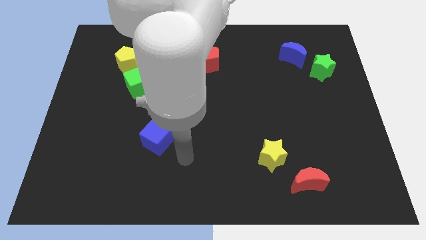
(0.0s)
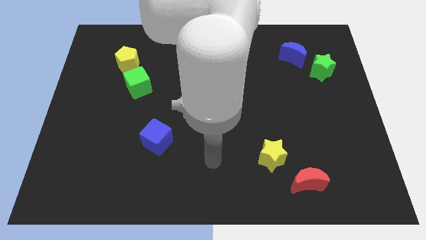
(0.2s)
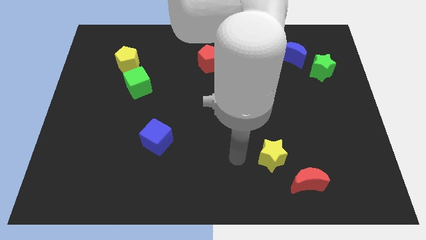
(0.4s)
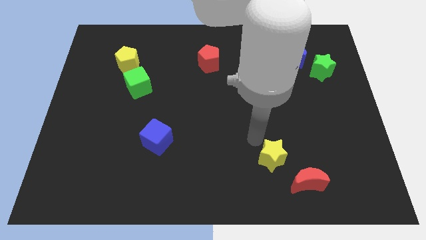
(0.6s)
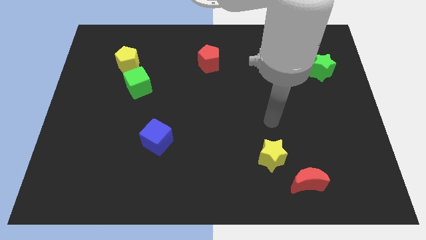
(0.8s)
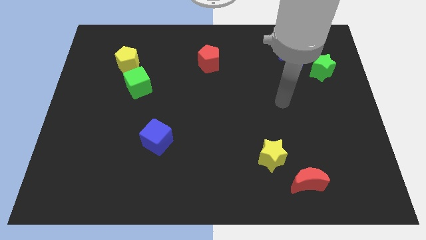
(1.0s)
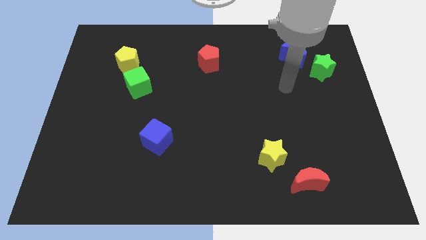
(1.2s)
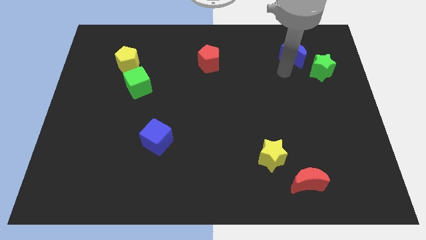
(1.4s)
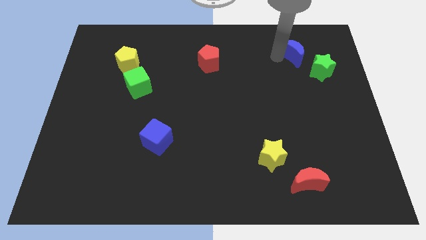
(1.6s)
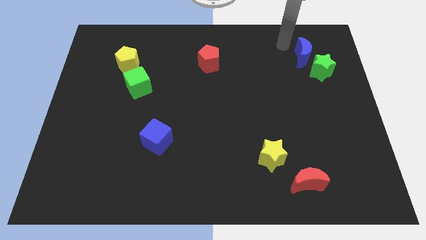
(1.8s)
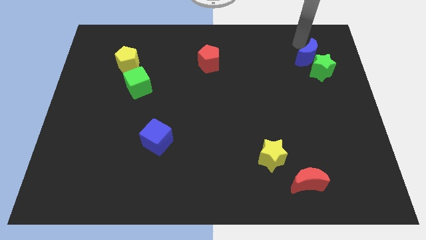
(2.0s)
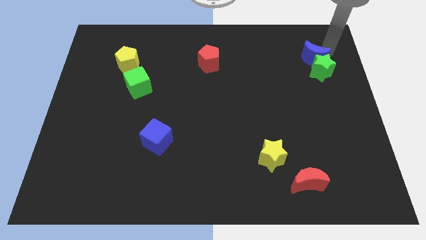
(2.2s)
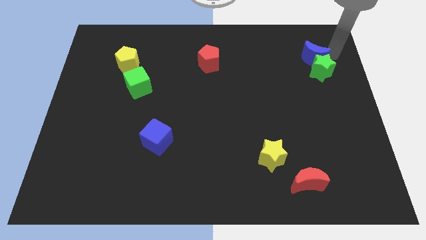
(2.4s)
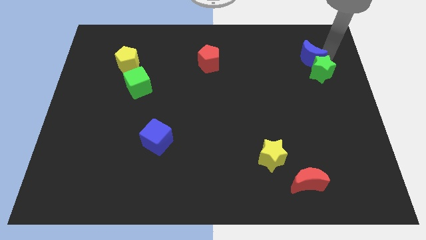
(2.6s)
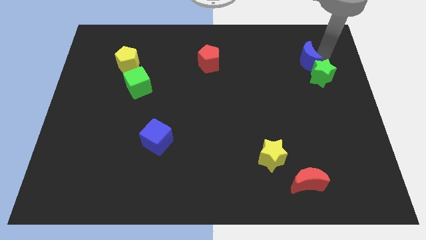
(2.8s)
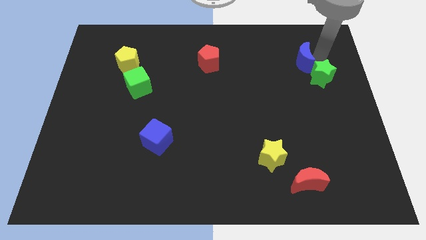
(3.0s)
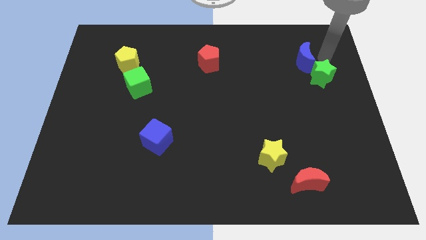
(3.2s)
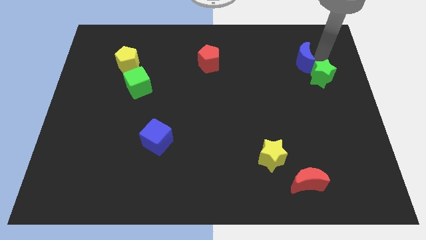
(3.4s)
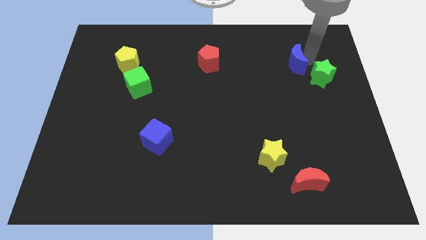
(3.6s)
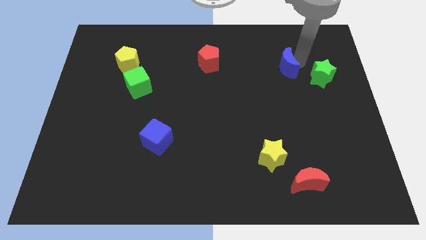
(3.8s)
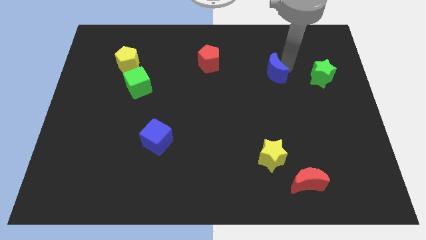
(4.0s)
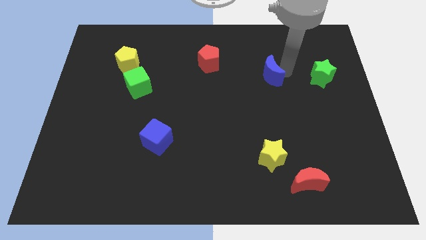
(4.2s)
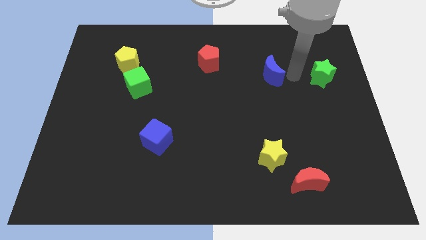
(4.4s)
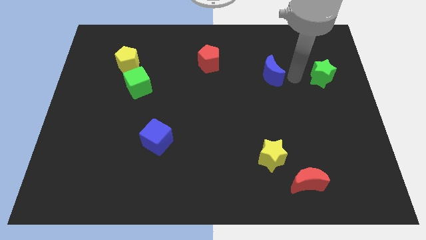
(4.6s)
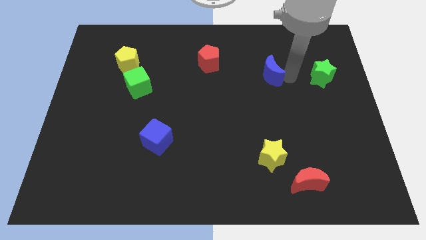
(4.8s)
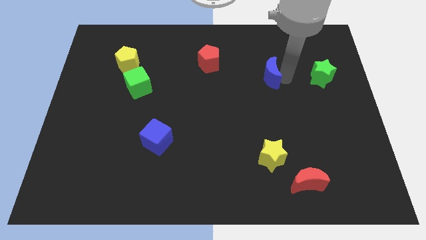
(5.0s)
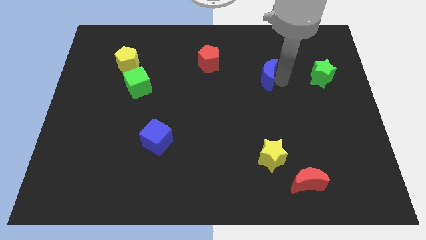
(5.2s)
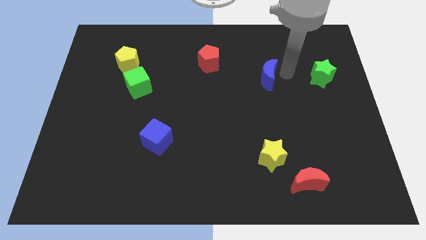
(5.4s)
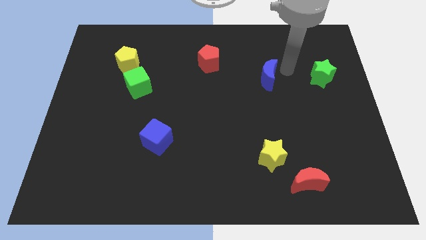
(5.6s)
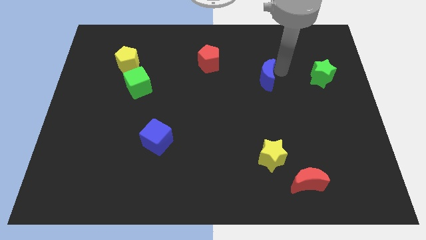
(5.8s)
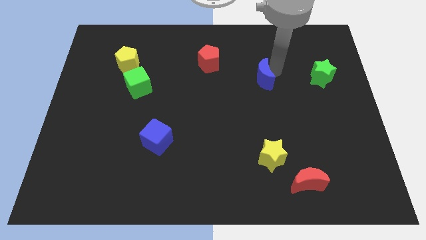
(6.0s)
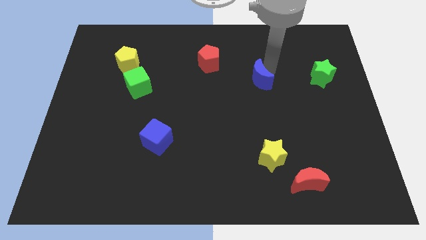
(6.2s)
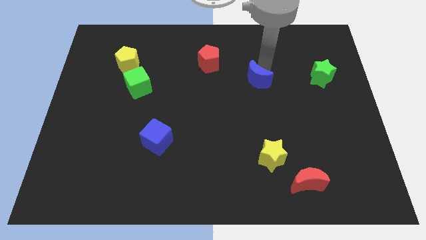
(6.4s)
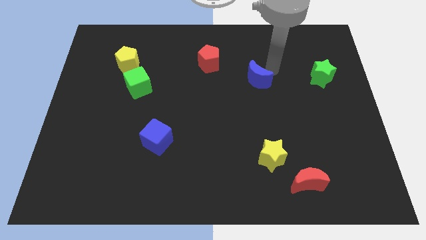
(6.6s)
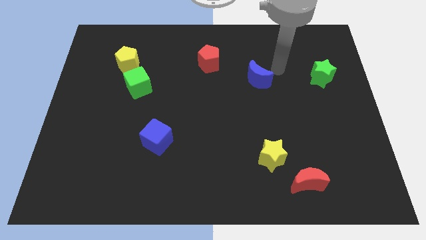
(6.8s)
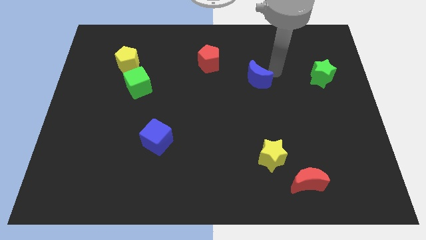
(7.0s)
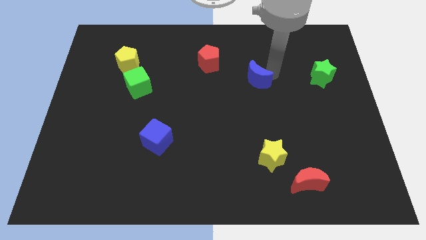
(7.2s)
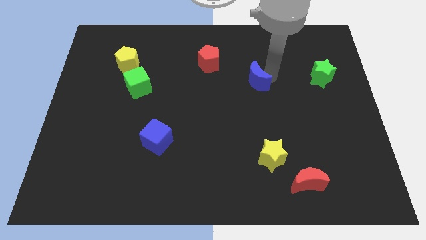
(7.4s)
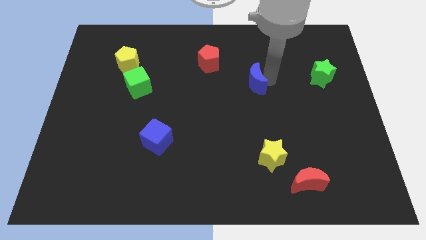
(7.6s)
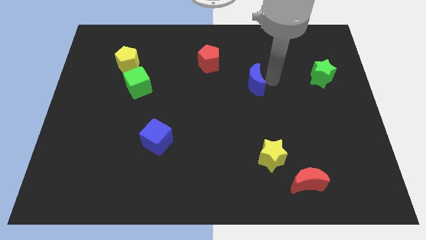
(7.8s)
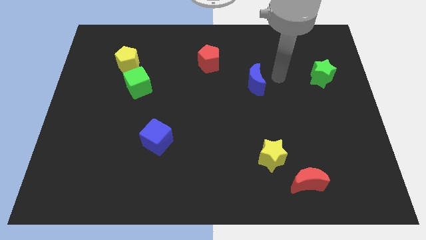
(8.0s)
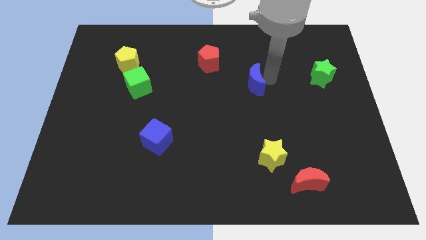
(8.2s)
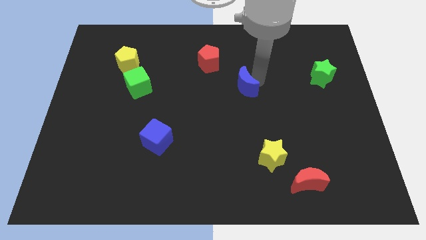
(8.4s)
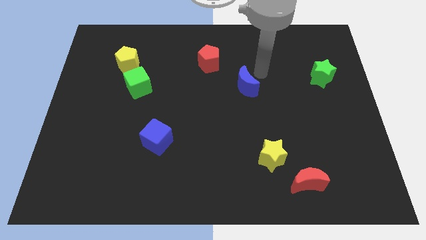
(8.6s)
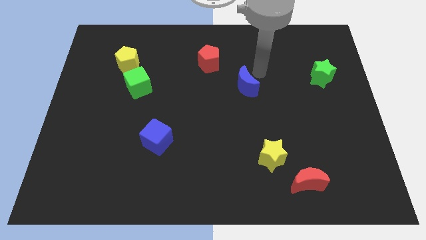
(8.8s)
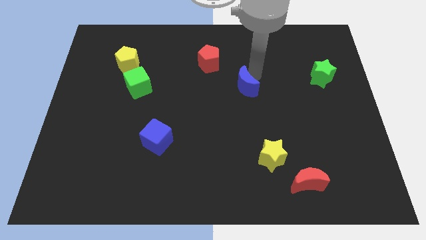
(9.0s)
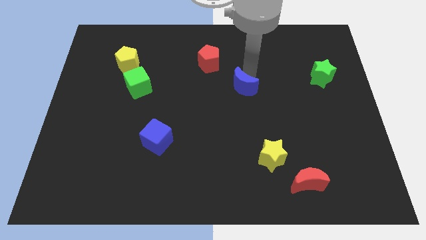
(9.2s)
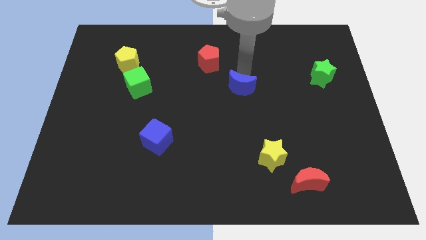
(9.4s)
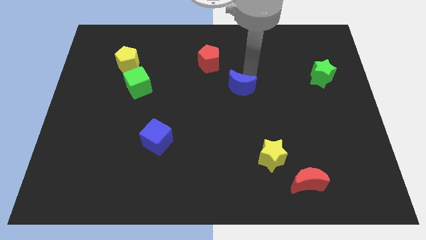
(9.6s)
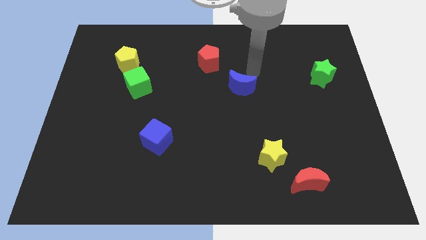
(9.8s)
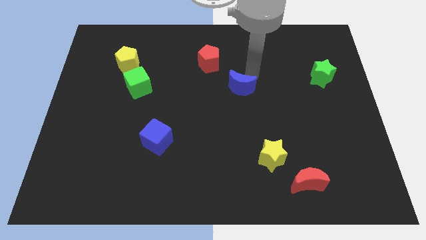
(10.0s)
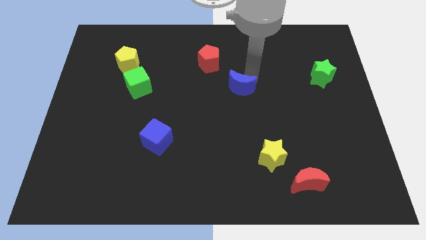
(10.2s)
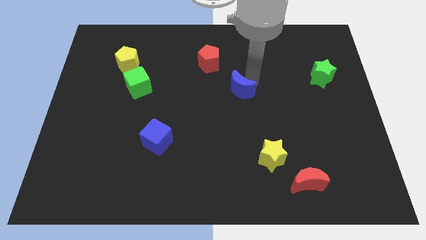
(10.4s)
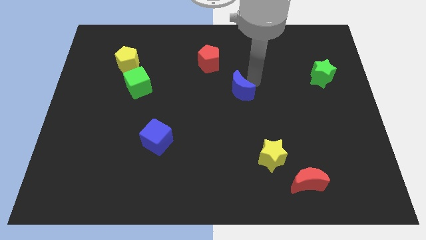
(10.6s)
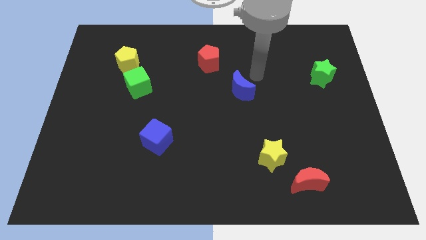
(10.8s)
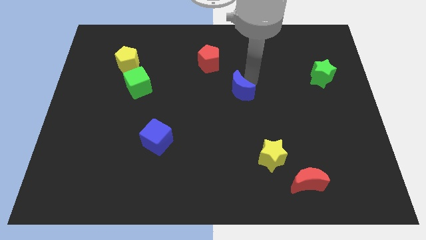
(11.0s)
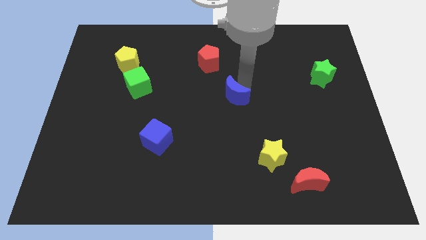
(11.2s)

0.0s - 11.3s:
move the blue moon downwards and to the left diagonally

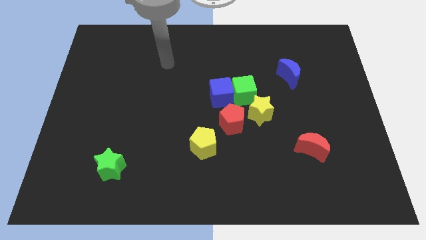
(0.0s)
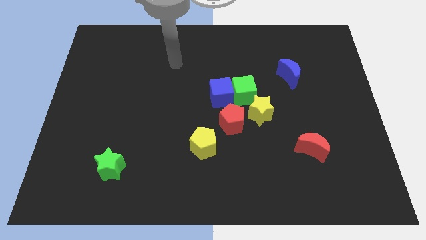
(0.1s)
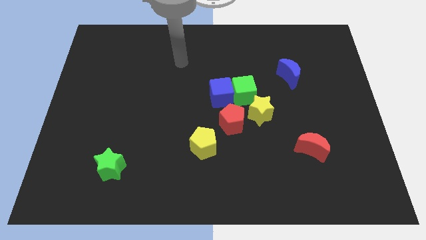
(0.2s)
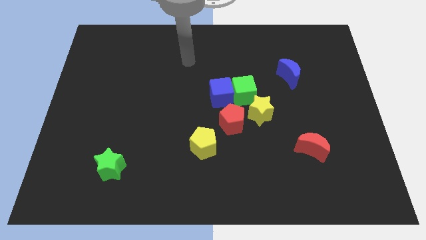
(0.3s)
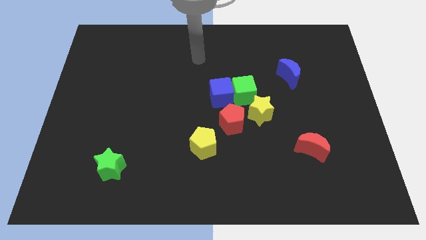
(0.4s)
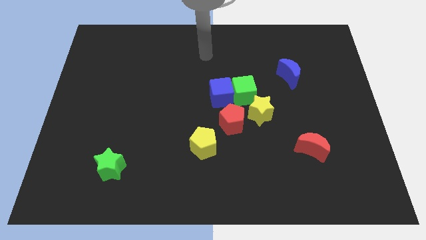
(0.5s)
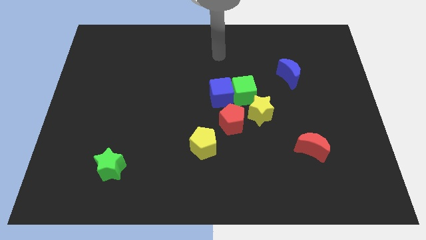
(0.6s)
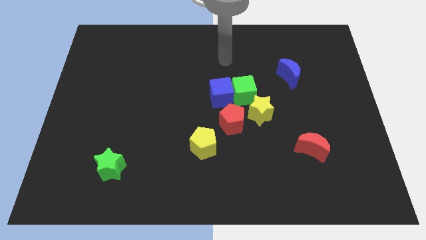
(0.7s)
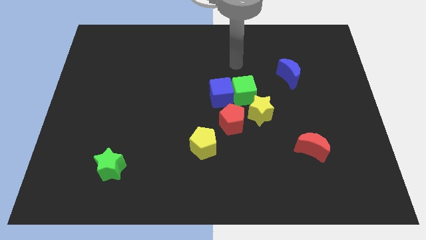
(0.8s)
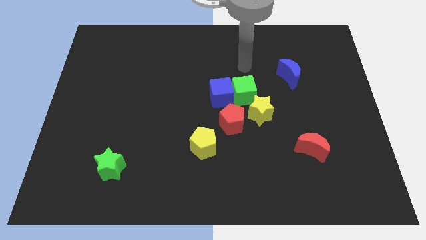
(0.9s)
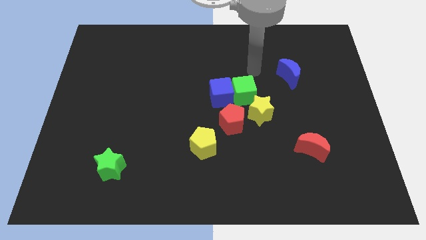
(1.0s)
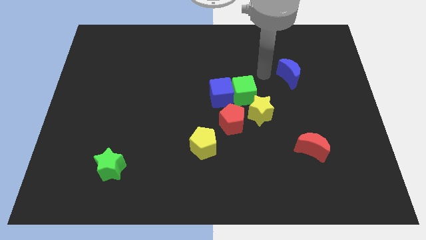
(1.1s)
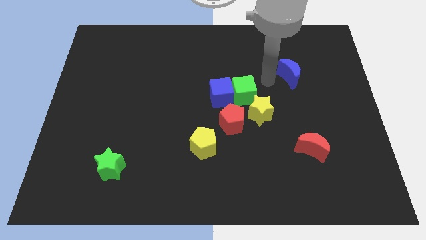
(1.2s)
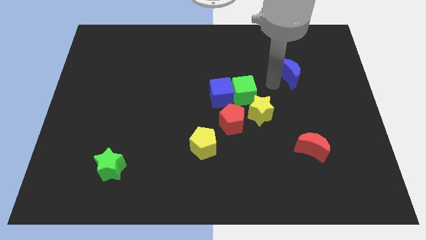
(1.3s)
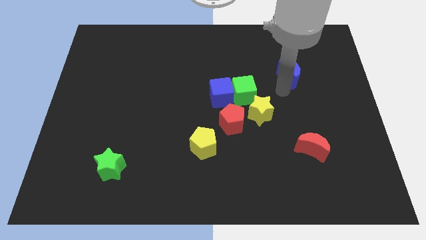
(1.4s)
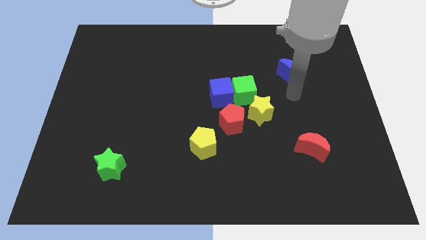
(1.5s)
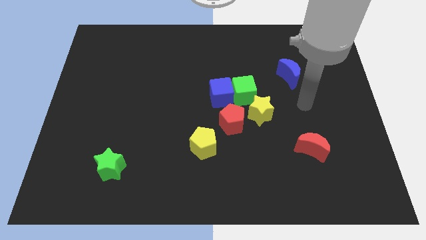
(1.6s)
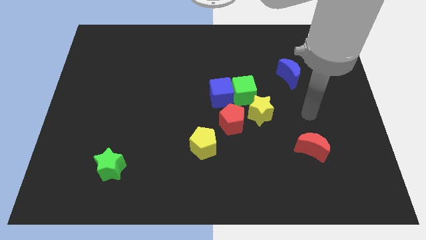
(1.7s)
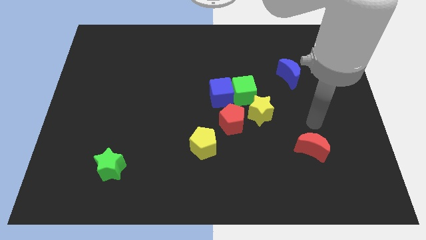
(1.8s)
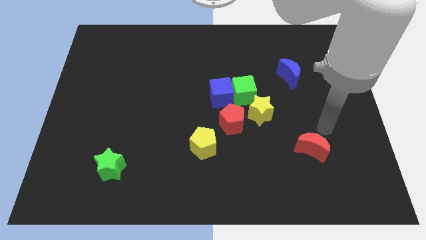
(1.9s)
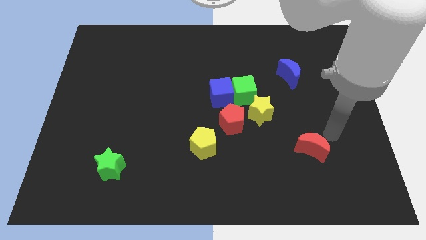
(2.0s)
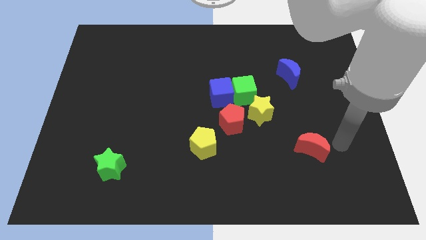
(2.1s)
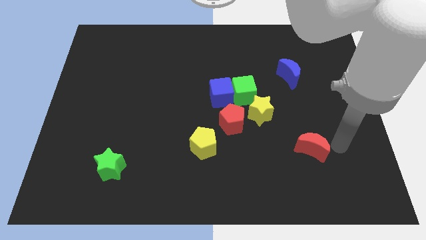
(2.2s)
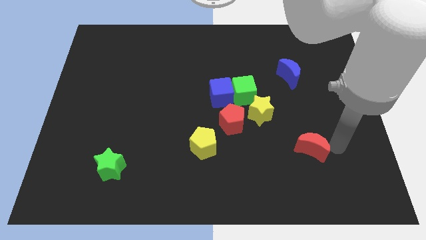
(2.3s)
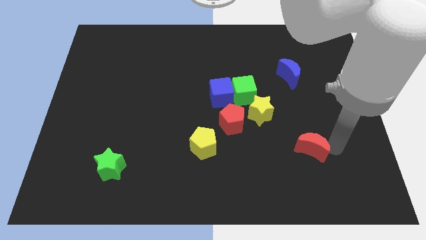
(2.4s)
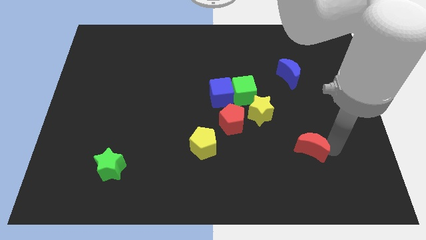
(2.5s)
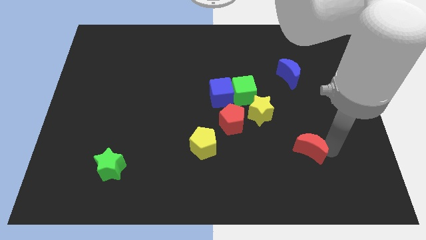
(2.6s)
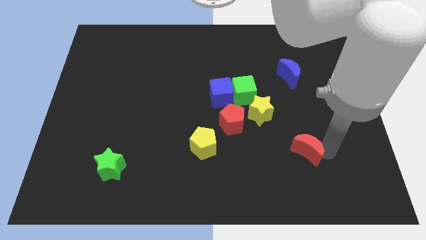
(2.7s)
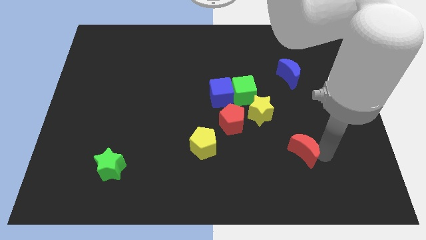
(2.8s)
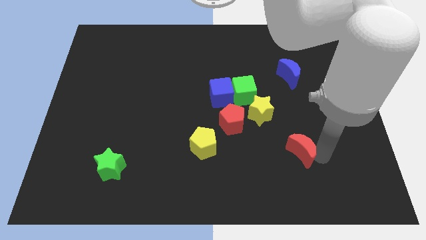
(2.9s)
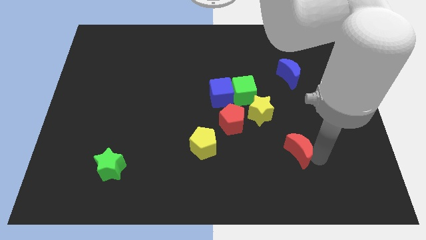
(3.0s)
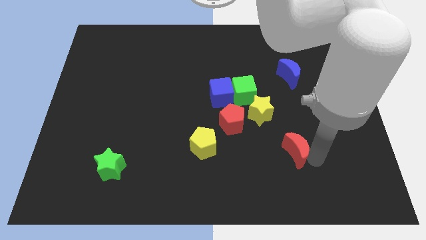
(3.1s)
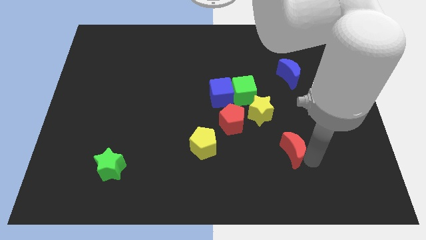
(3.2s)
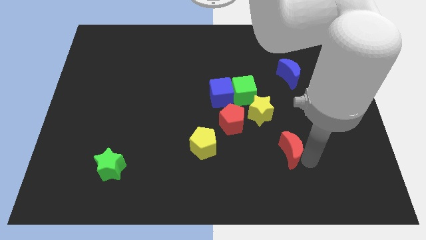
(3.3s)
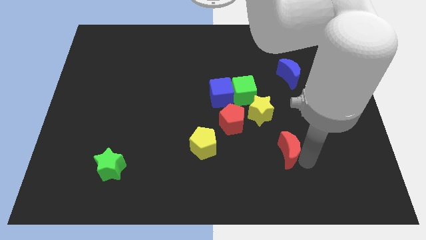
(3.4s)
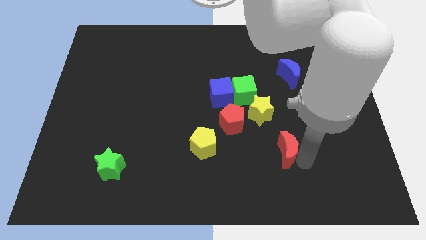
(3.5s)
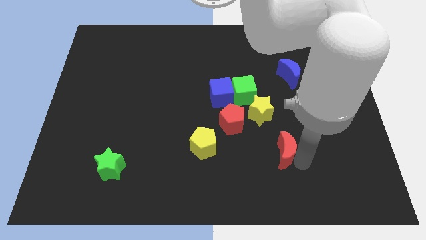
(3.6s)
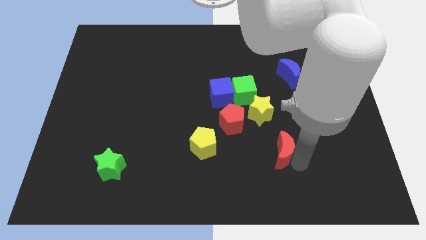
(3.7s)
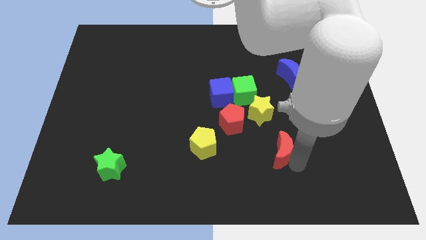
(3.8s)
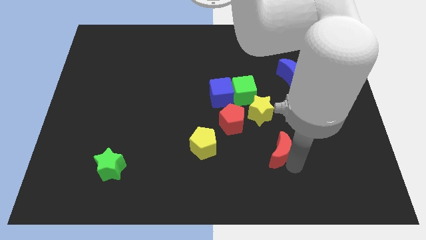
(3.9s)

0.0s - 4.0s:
push the red moon to the left slightly
